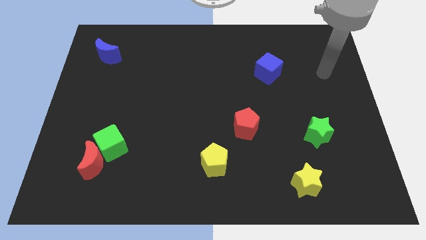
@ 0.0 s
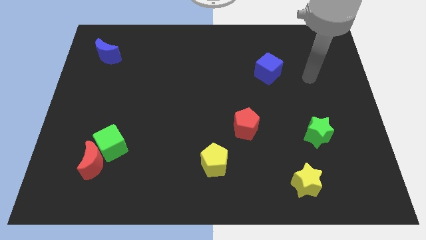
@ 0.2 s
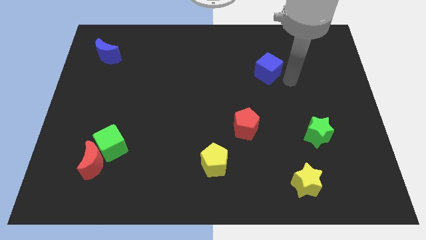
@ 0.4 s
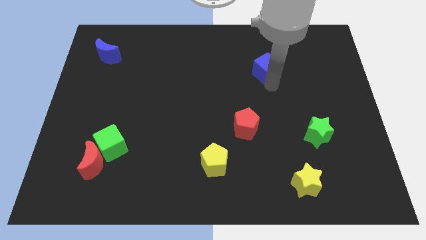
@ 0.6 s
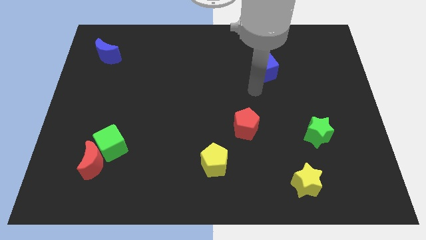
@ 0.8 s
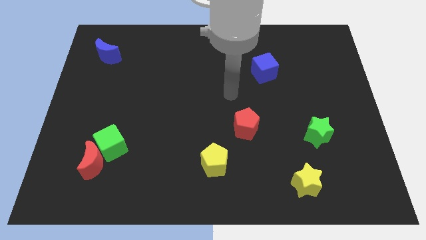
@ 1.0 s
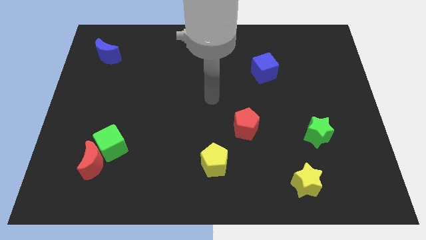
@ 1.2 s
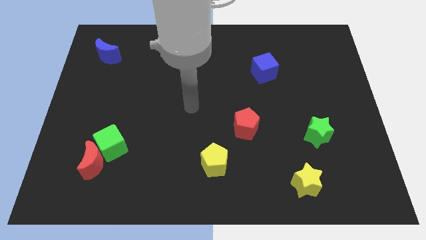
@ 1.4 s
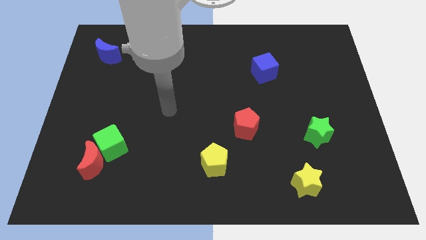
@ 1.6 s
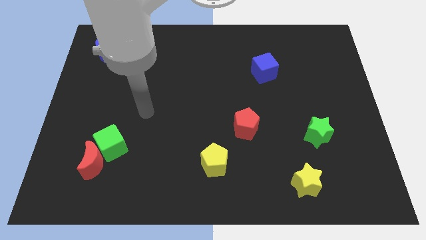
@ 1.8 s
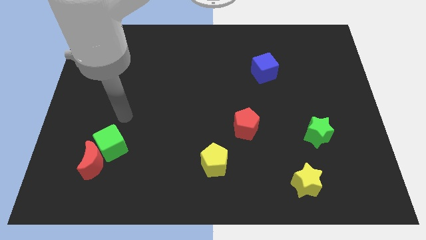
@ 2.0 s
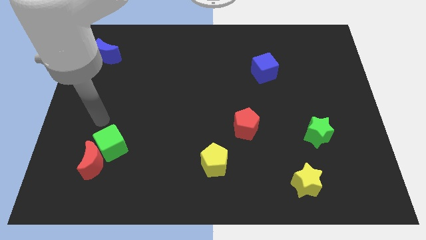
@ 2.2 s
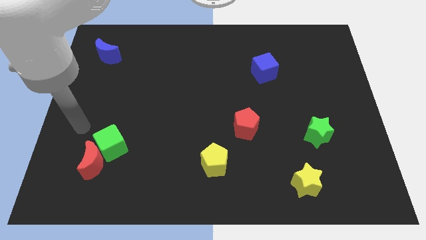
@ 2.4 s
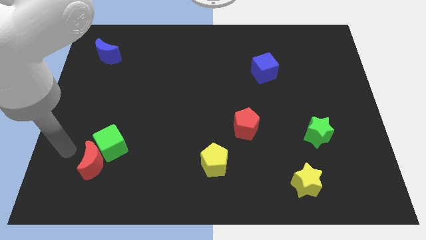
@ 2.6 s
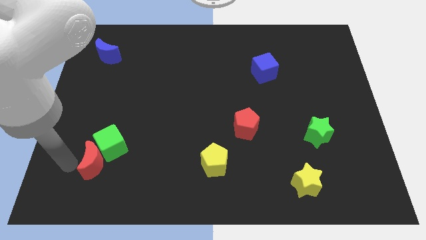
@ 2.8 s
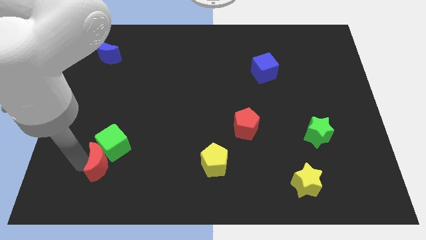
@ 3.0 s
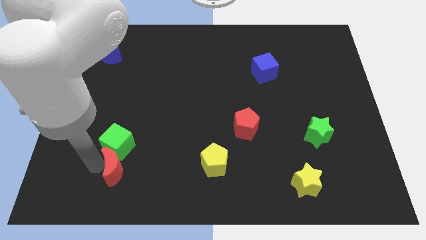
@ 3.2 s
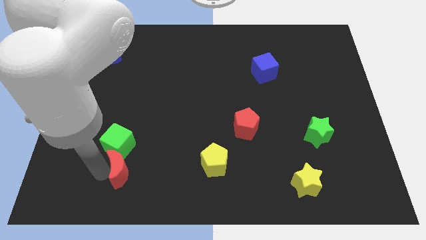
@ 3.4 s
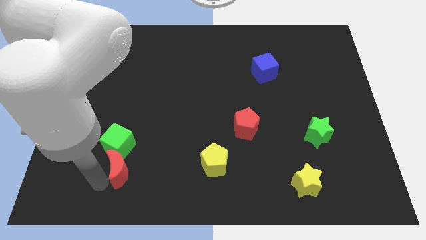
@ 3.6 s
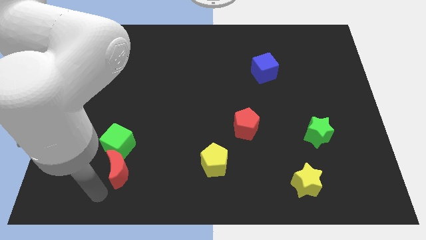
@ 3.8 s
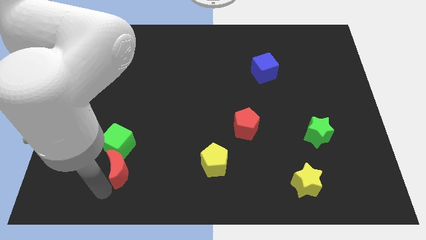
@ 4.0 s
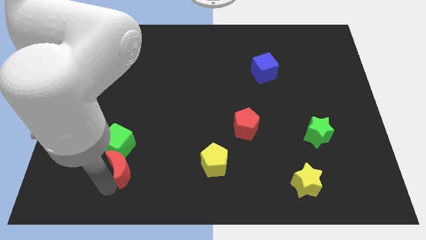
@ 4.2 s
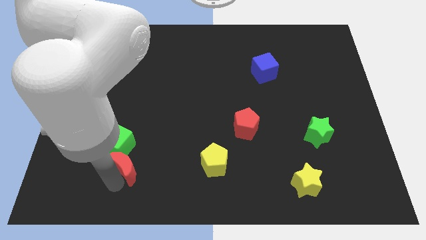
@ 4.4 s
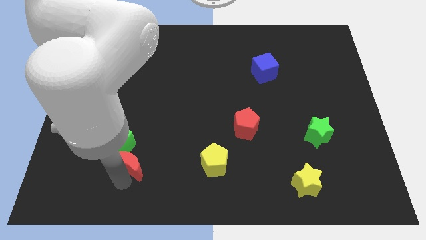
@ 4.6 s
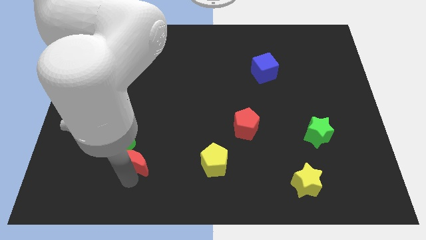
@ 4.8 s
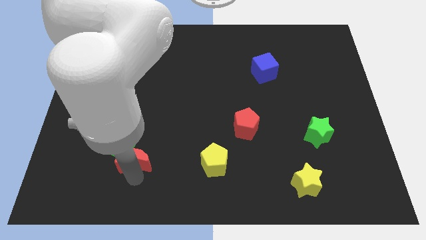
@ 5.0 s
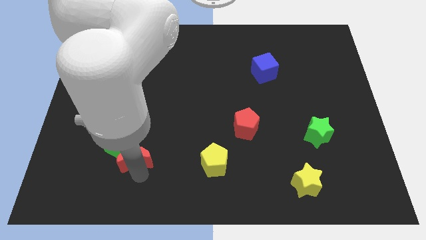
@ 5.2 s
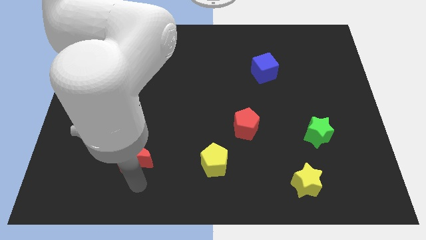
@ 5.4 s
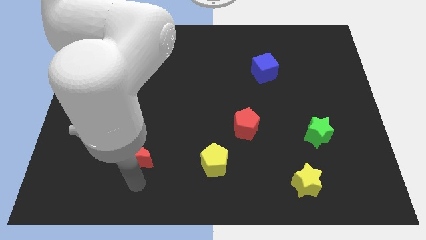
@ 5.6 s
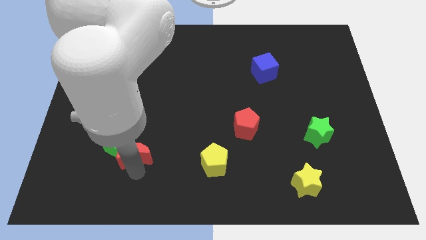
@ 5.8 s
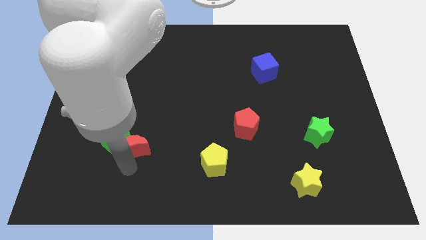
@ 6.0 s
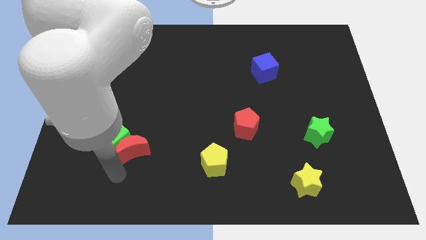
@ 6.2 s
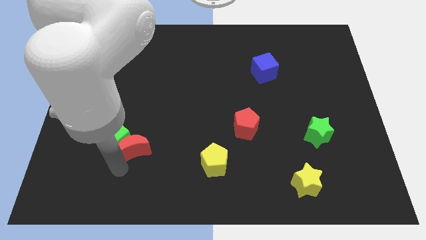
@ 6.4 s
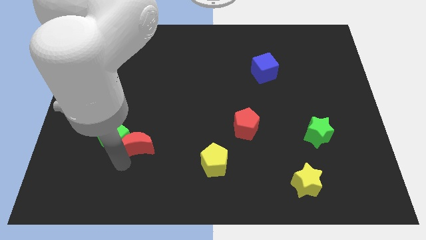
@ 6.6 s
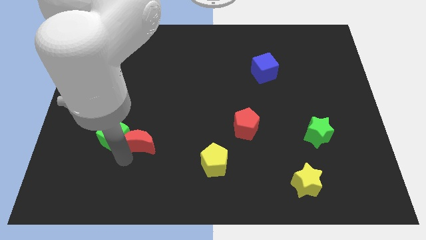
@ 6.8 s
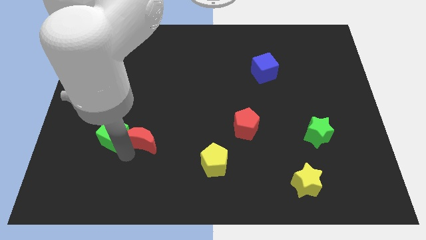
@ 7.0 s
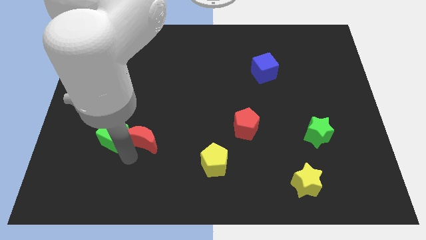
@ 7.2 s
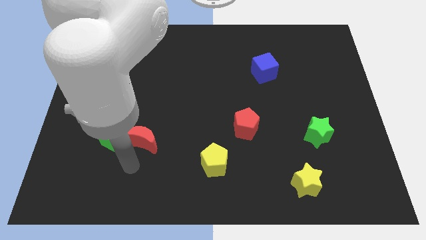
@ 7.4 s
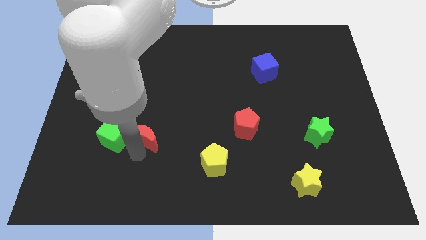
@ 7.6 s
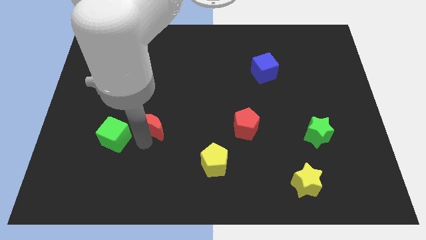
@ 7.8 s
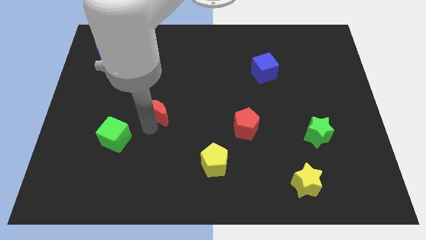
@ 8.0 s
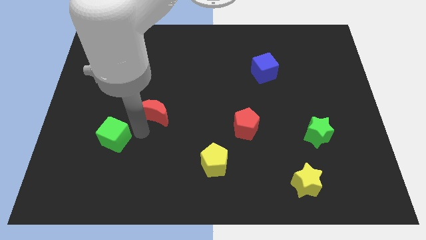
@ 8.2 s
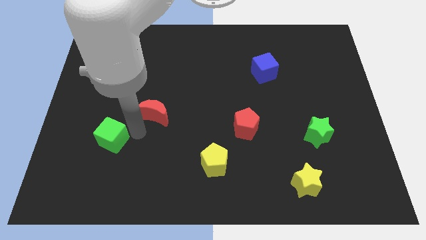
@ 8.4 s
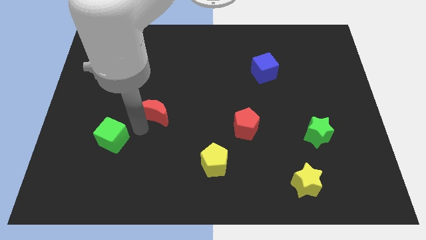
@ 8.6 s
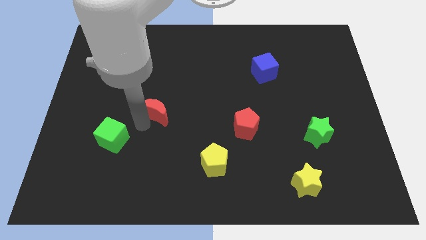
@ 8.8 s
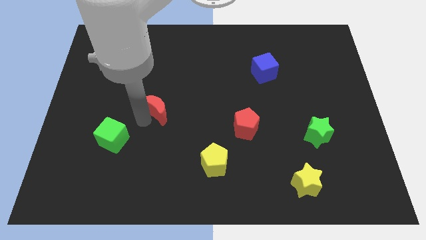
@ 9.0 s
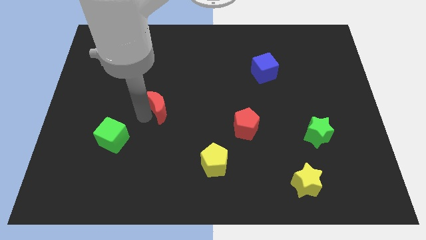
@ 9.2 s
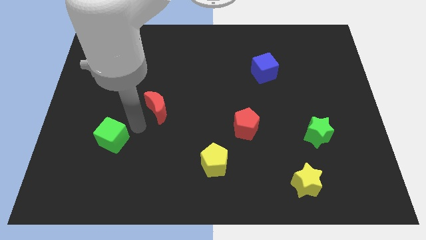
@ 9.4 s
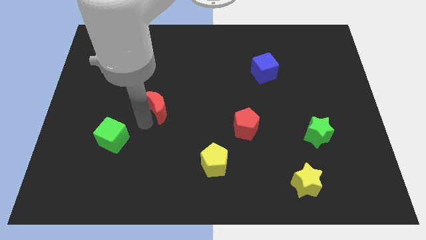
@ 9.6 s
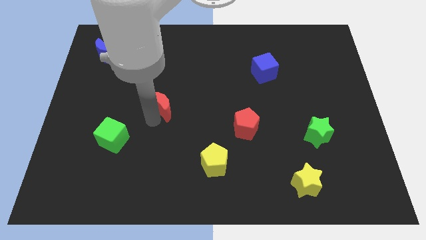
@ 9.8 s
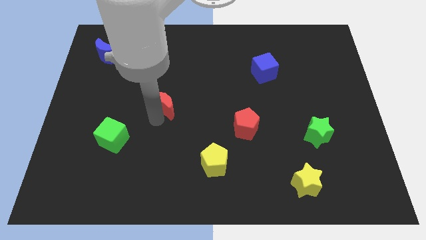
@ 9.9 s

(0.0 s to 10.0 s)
push the red moon up and to the right

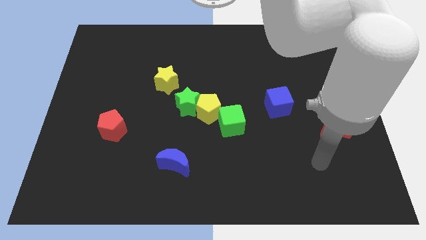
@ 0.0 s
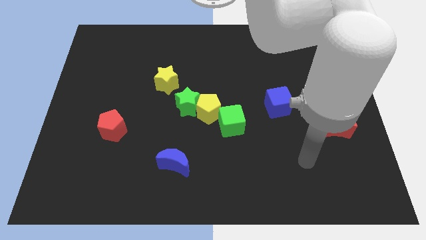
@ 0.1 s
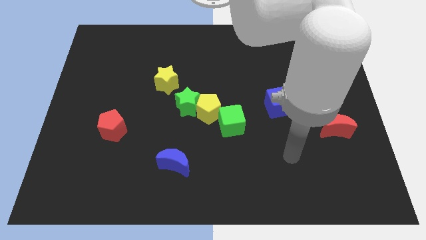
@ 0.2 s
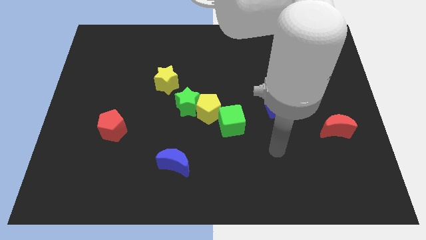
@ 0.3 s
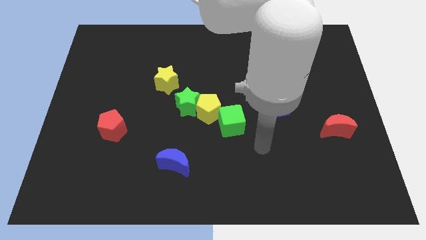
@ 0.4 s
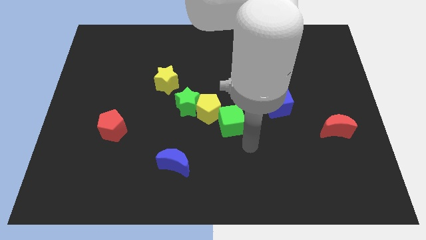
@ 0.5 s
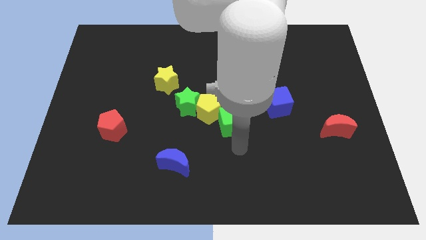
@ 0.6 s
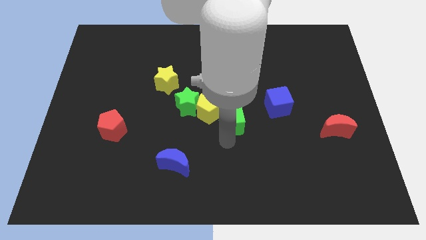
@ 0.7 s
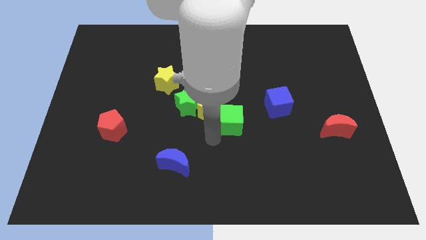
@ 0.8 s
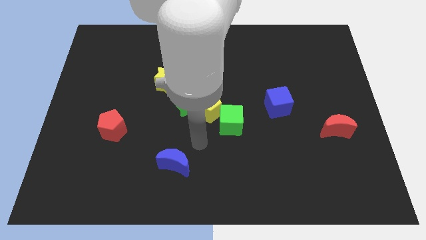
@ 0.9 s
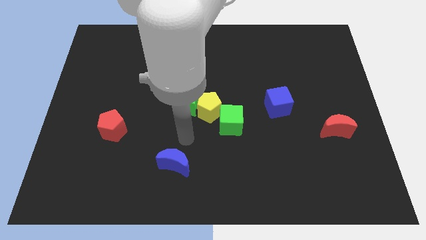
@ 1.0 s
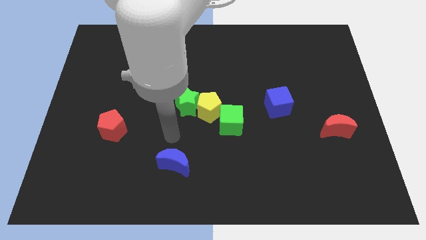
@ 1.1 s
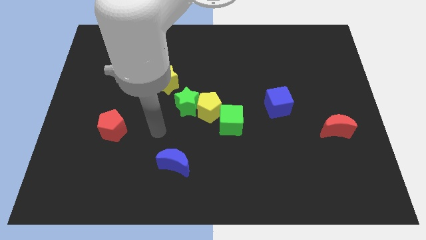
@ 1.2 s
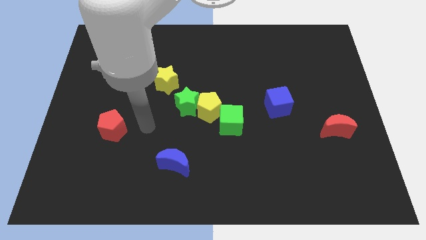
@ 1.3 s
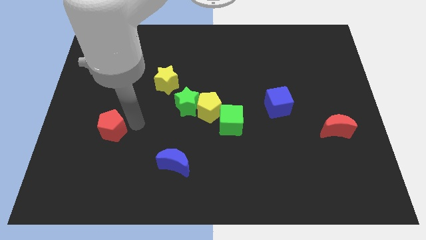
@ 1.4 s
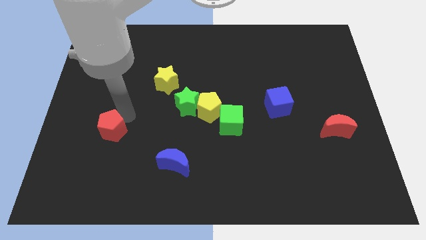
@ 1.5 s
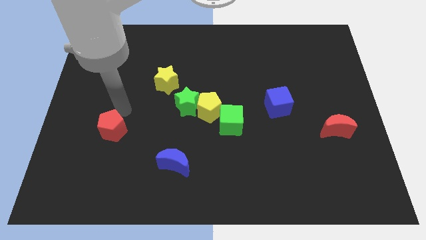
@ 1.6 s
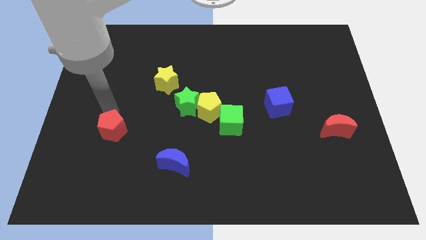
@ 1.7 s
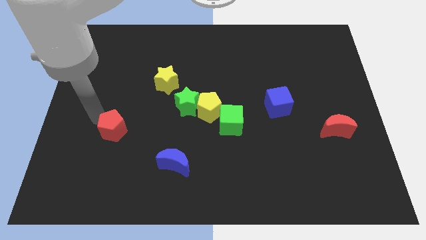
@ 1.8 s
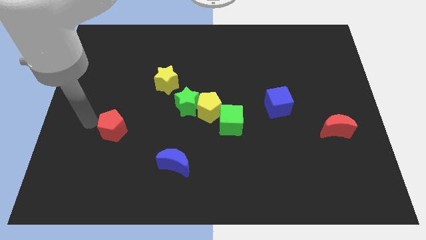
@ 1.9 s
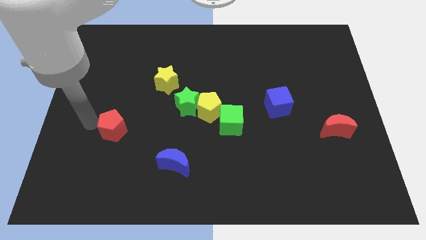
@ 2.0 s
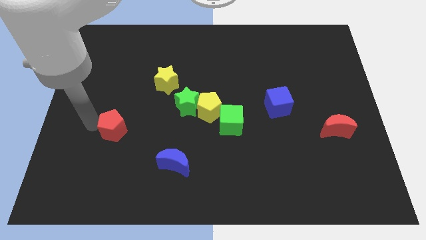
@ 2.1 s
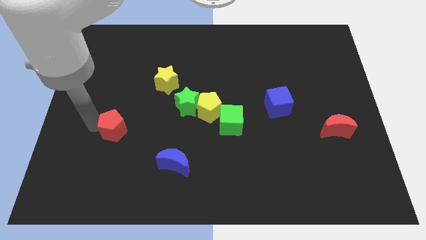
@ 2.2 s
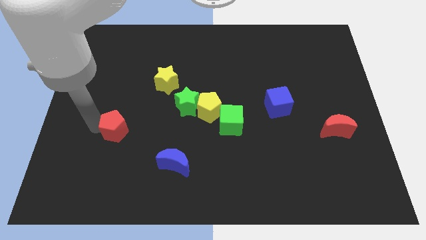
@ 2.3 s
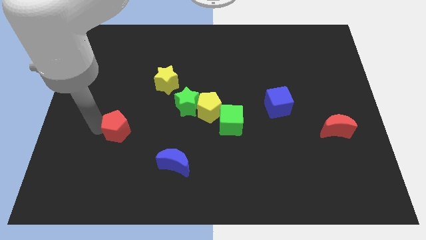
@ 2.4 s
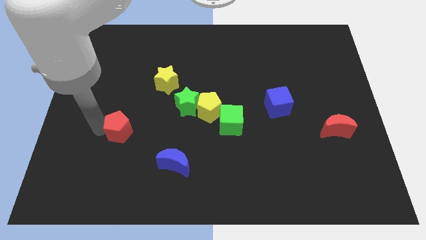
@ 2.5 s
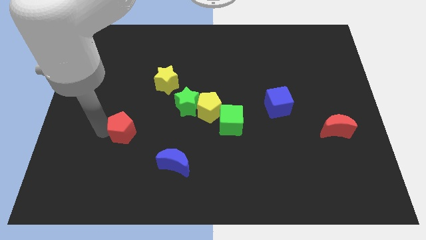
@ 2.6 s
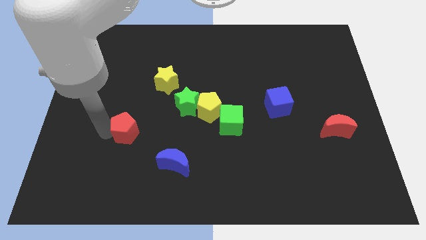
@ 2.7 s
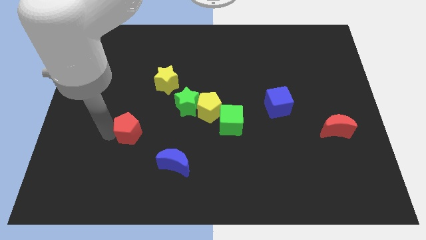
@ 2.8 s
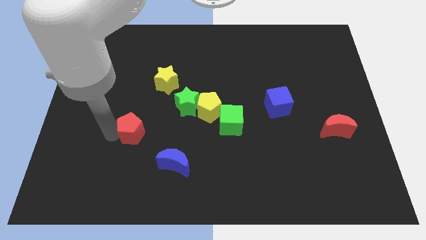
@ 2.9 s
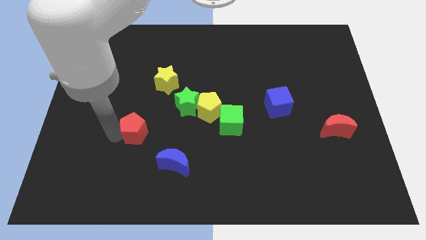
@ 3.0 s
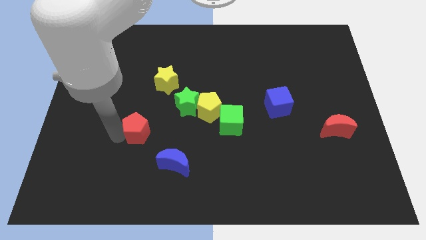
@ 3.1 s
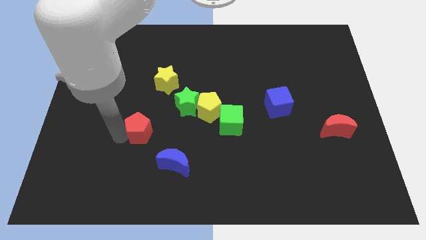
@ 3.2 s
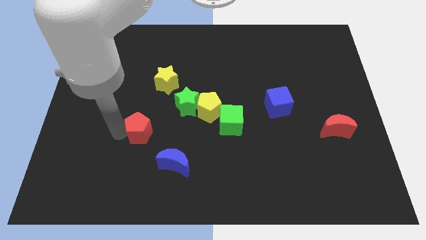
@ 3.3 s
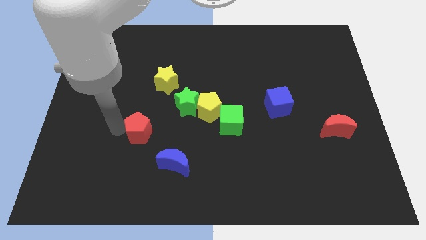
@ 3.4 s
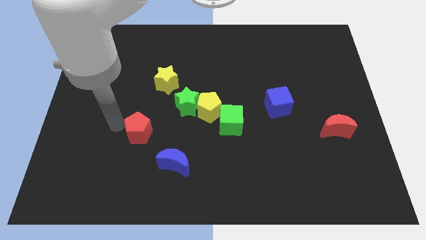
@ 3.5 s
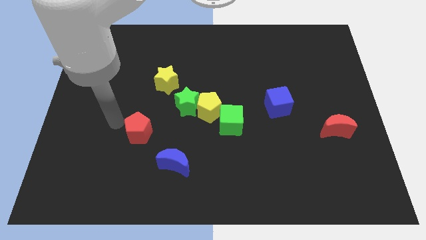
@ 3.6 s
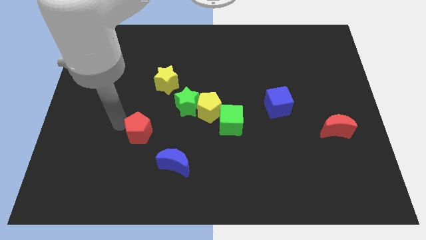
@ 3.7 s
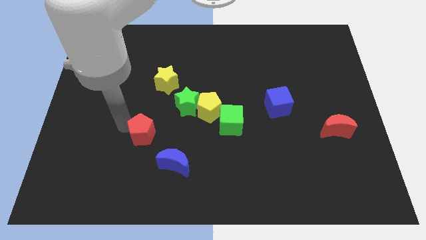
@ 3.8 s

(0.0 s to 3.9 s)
move the red pentagon to the right a little
